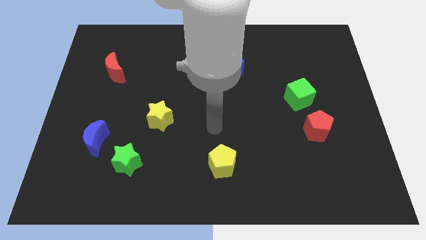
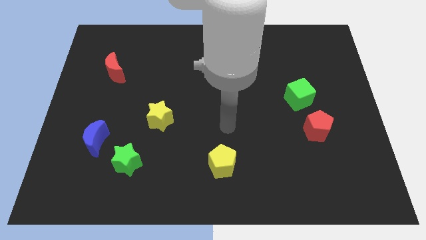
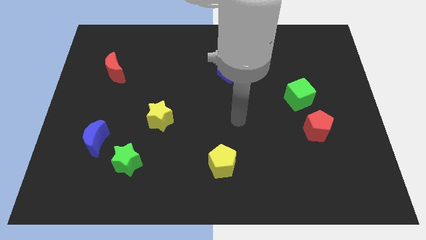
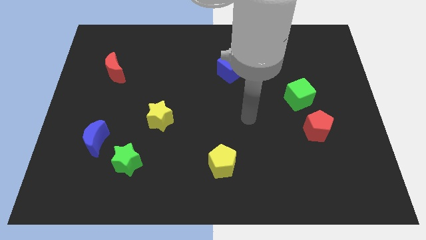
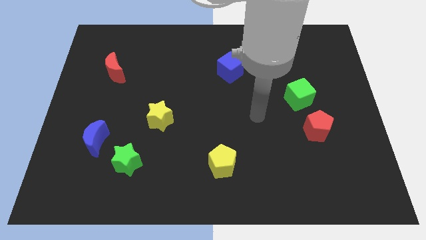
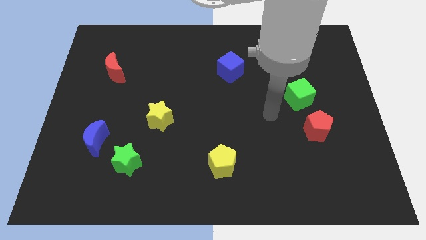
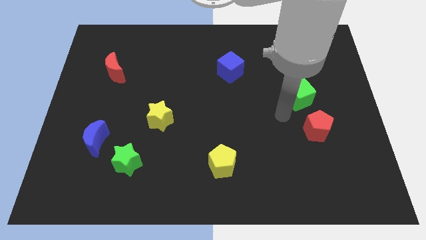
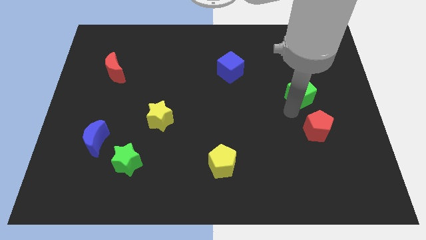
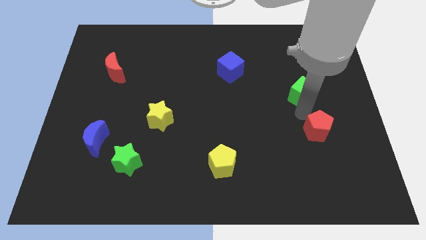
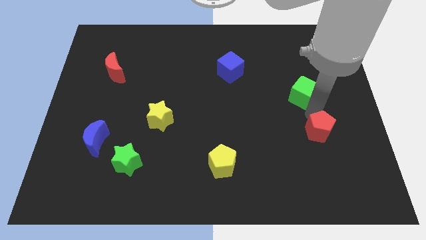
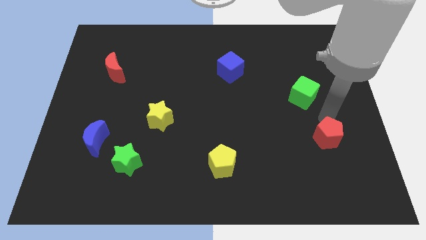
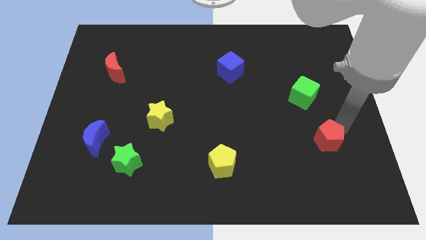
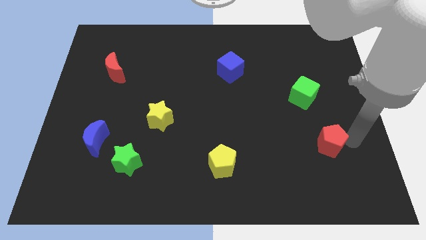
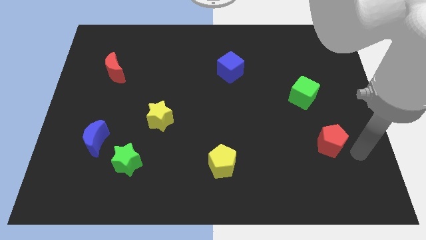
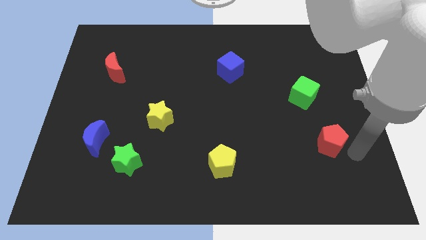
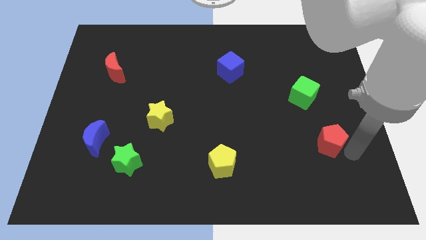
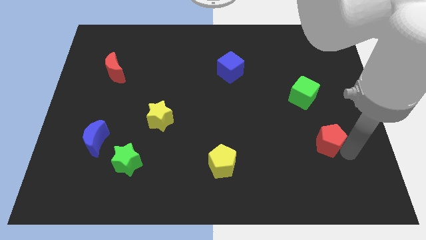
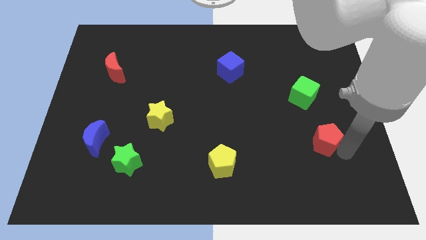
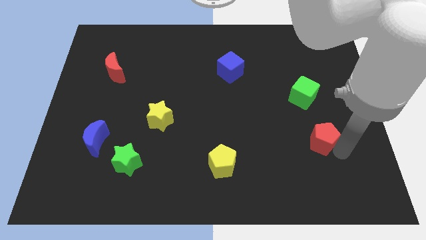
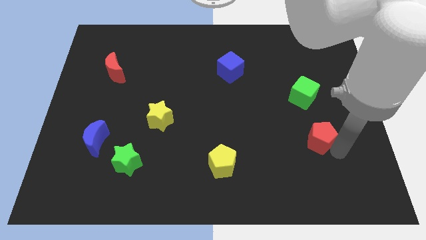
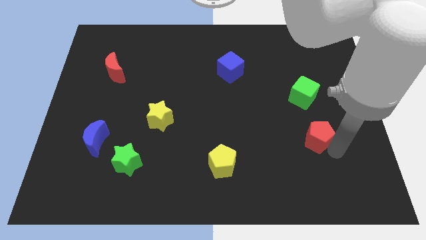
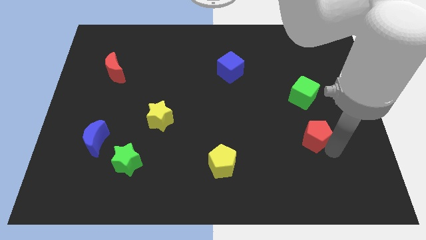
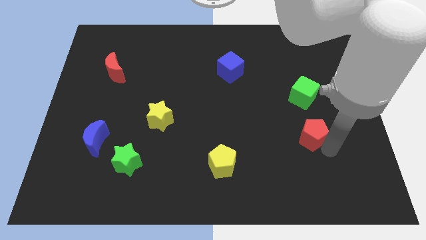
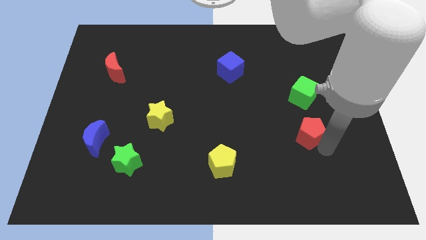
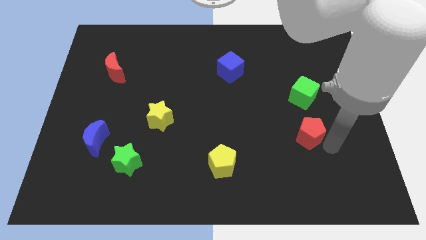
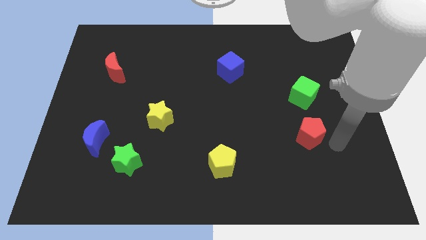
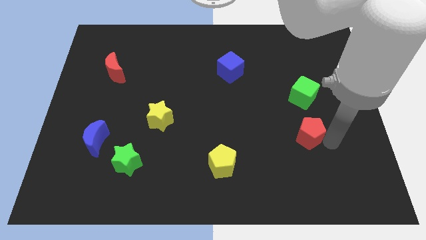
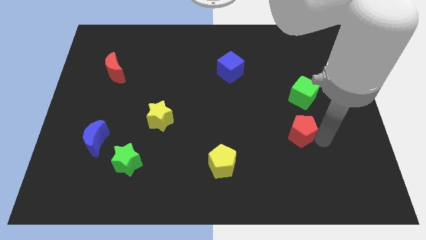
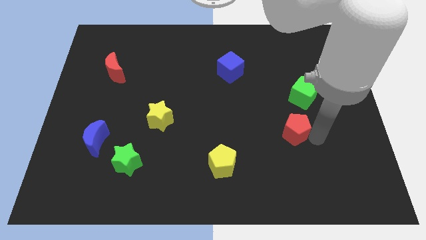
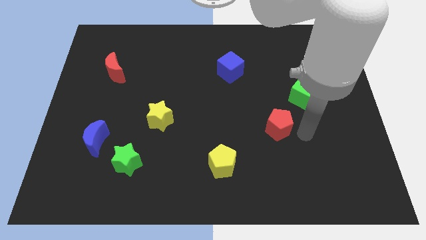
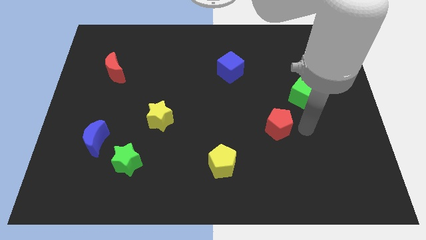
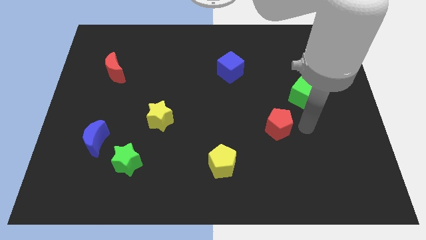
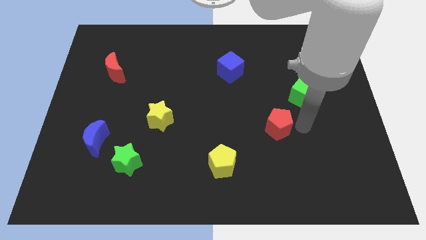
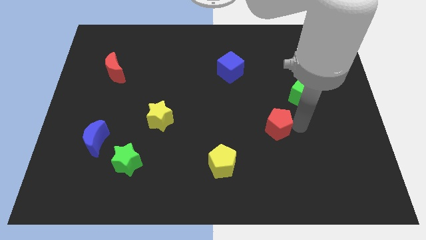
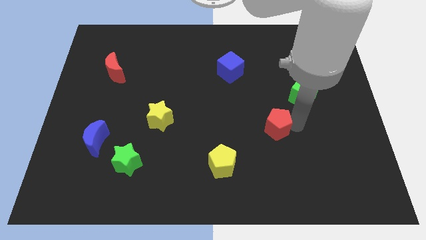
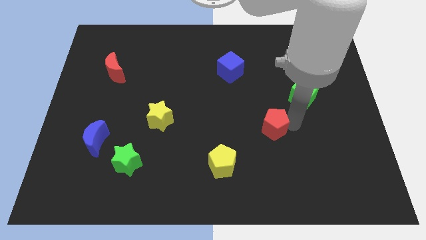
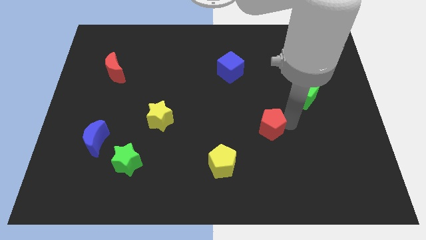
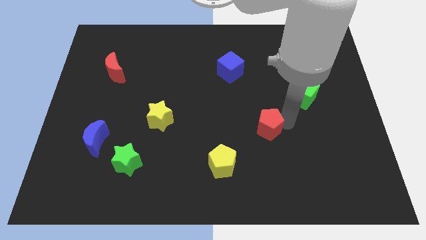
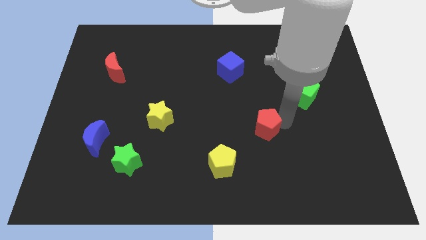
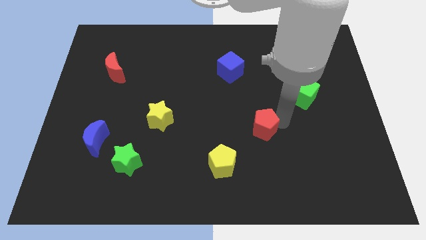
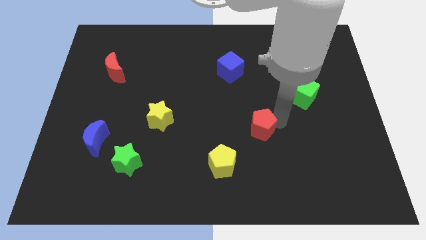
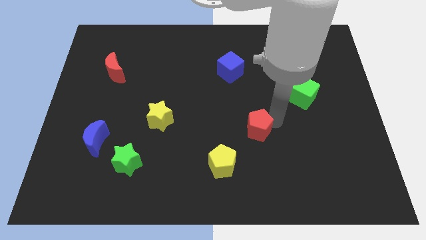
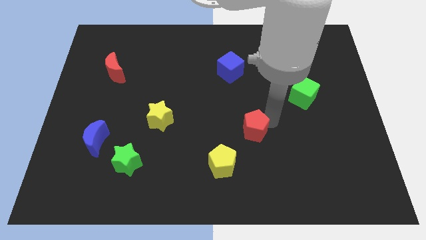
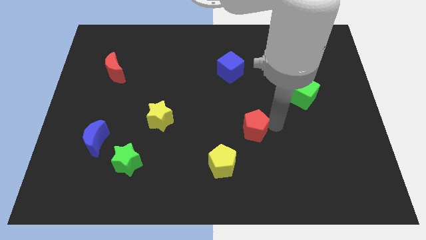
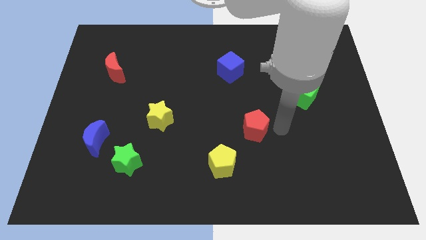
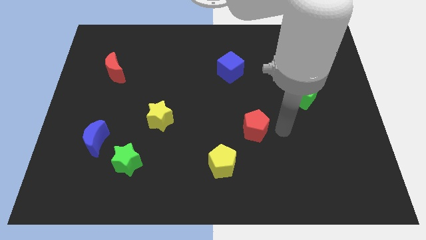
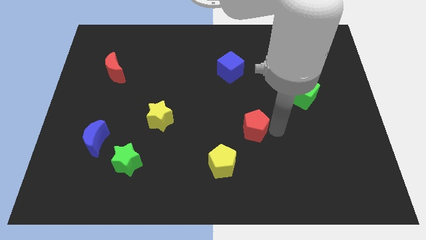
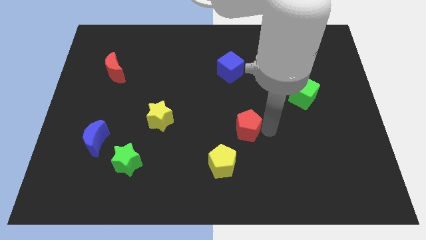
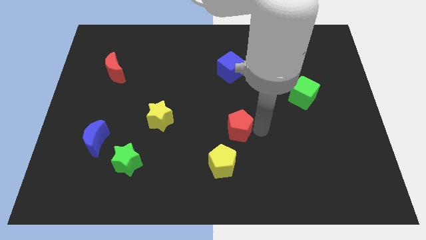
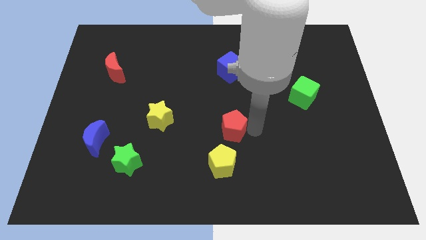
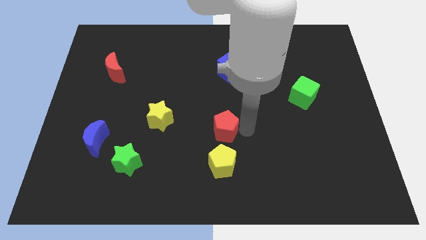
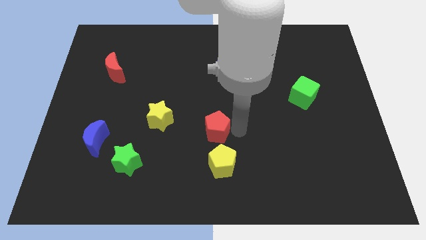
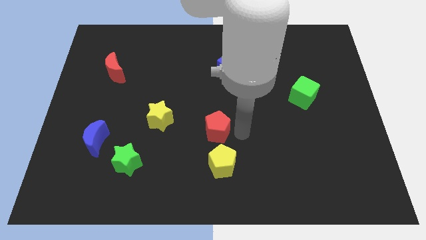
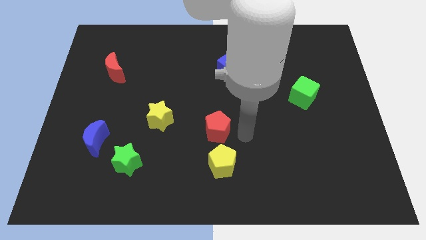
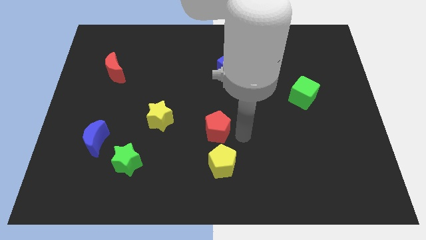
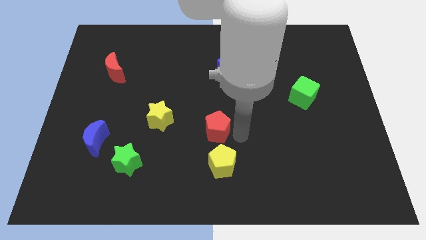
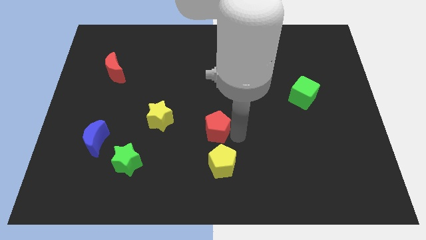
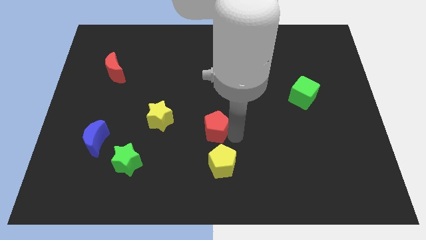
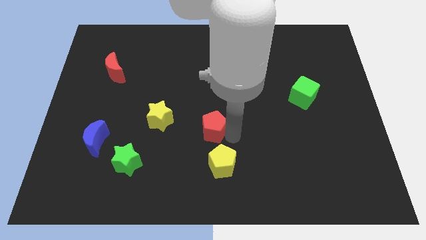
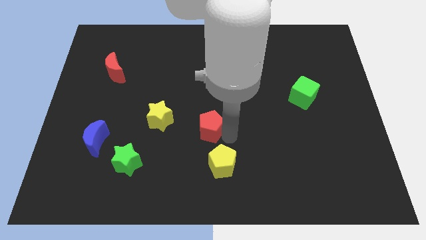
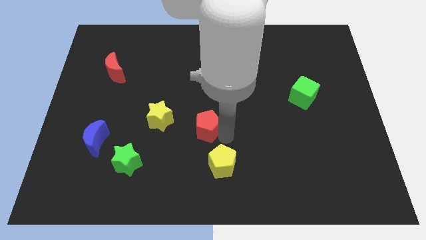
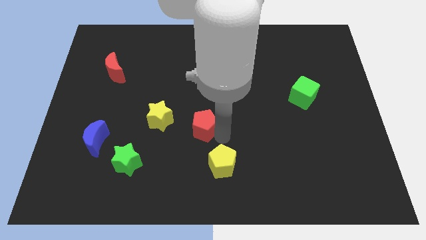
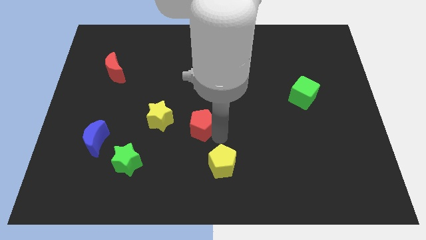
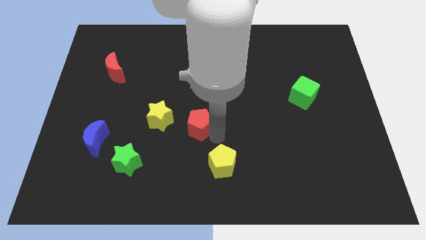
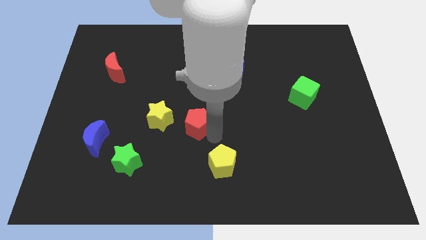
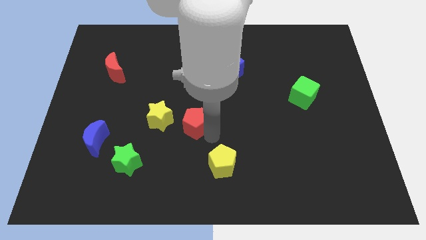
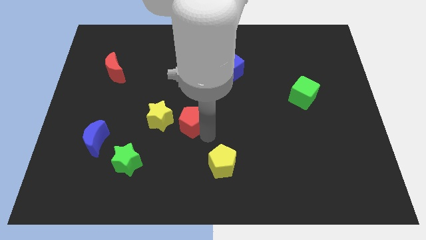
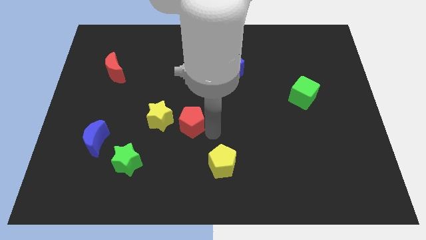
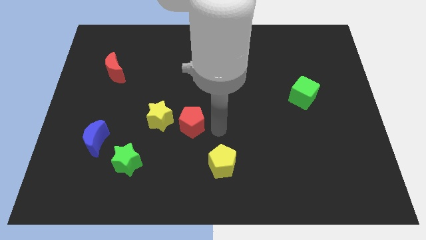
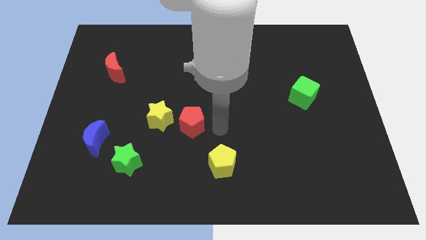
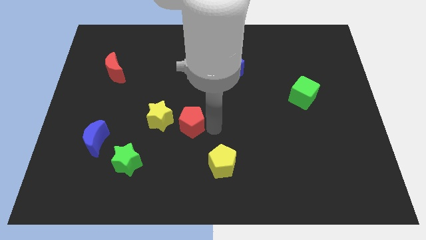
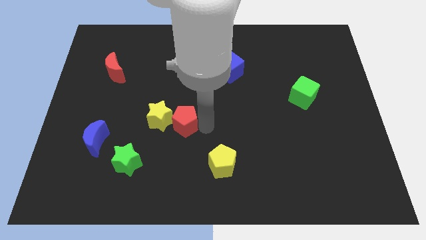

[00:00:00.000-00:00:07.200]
push the red pentagon to the yellow star
